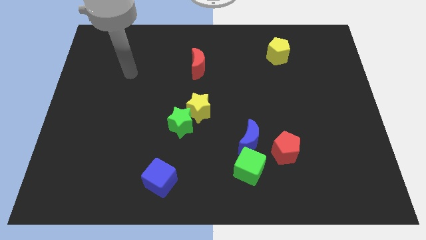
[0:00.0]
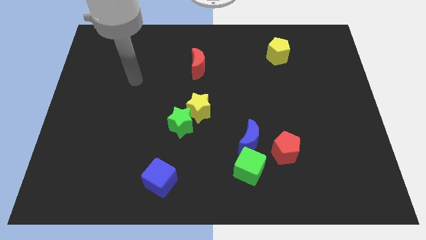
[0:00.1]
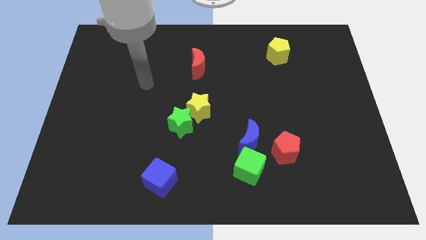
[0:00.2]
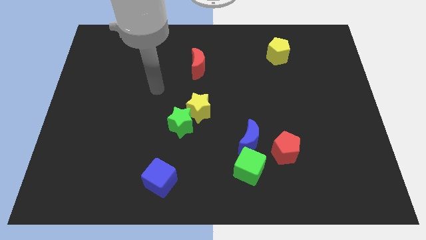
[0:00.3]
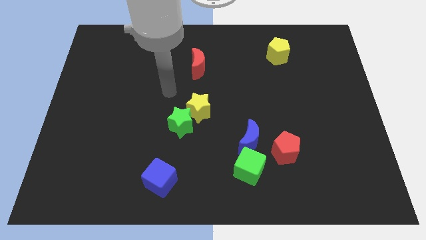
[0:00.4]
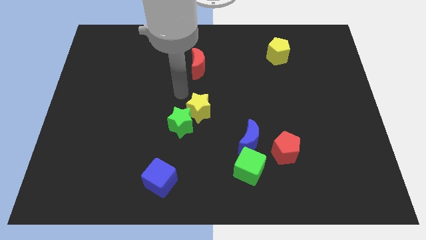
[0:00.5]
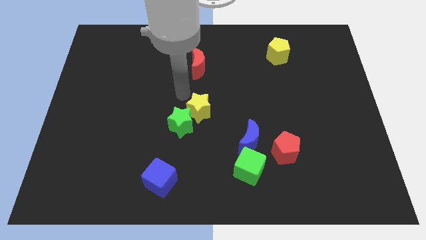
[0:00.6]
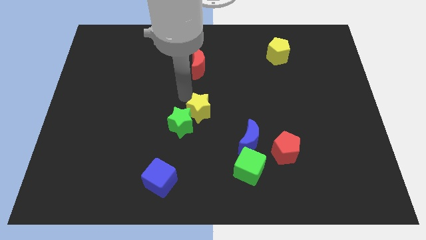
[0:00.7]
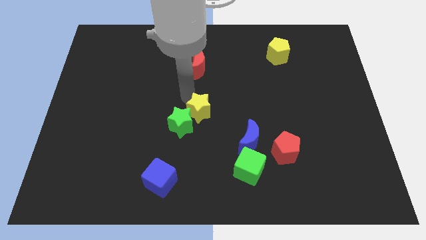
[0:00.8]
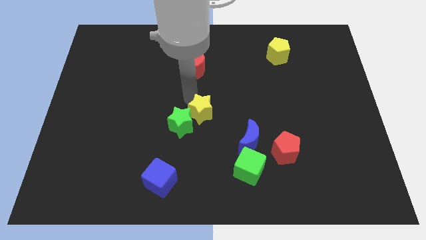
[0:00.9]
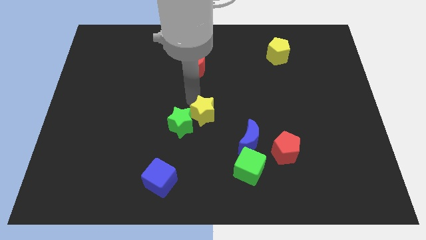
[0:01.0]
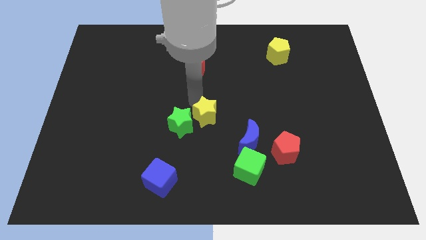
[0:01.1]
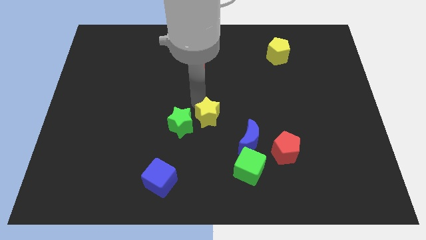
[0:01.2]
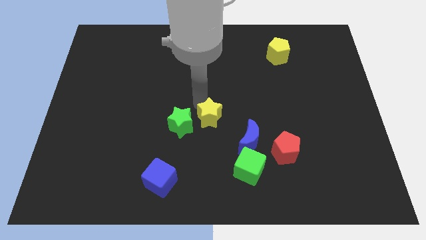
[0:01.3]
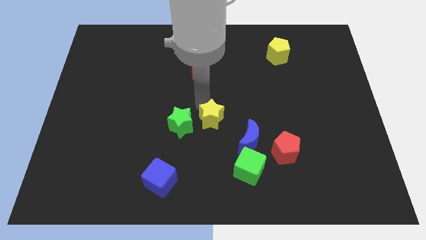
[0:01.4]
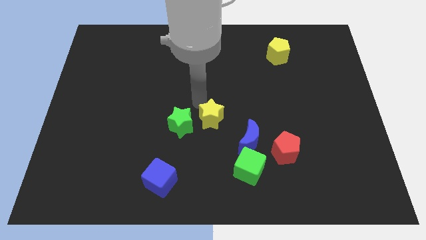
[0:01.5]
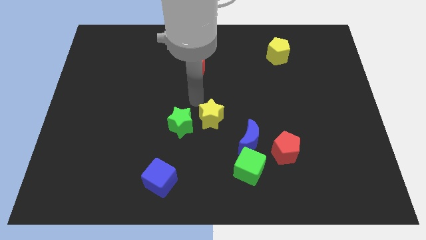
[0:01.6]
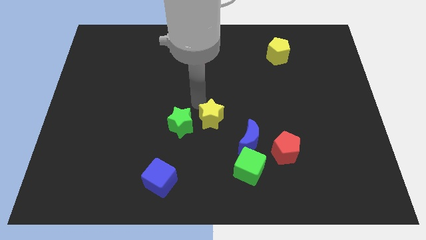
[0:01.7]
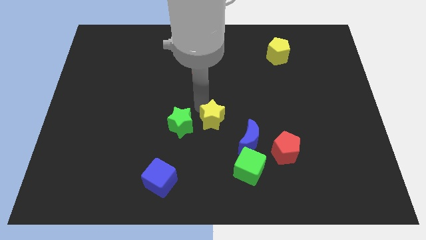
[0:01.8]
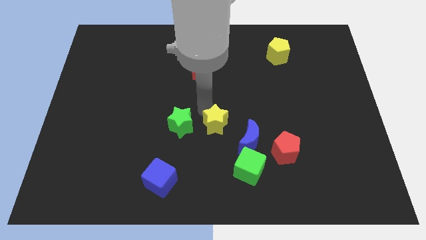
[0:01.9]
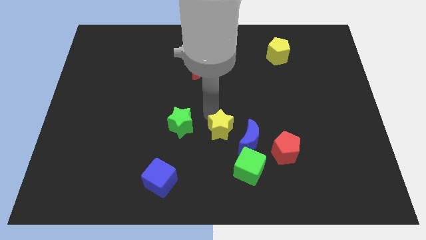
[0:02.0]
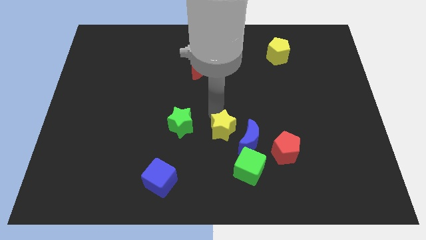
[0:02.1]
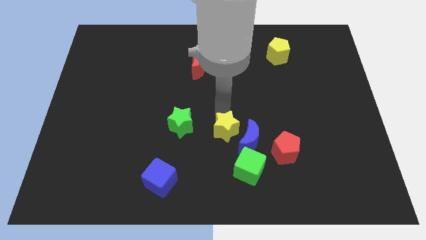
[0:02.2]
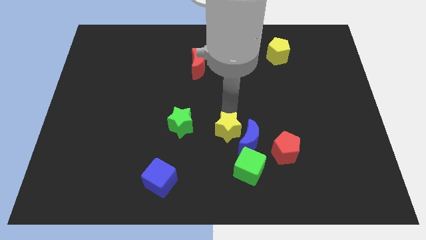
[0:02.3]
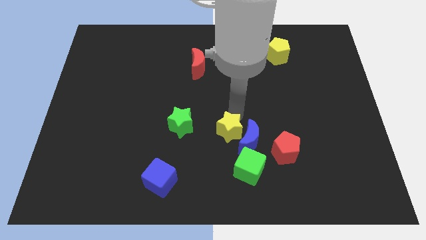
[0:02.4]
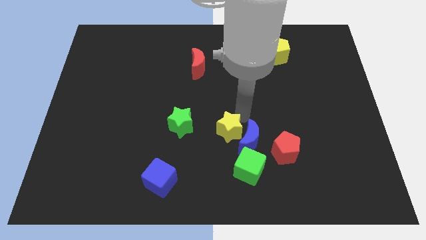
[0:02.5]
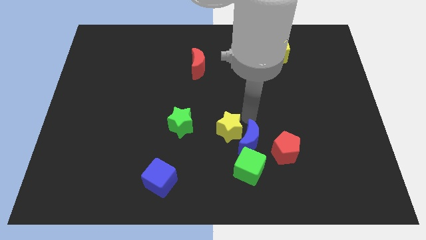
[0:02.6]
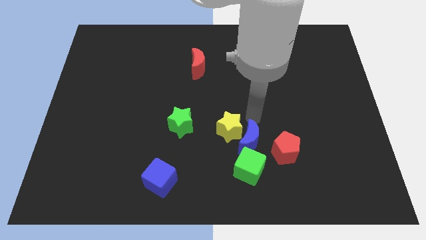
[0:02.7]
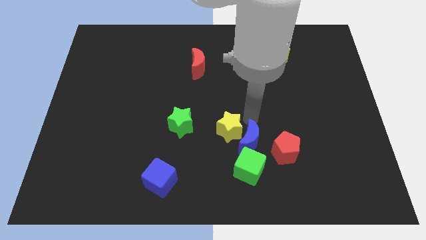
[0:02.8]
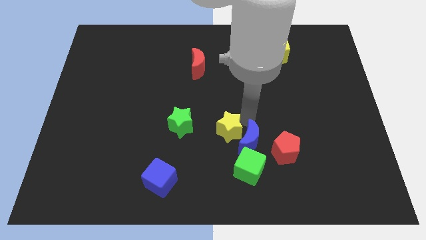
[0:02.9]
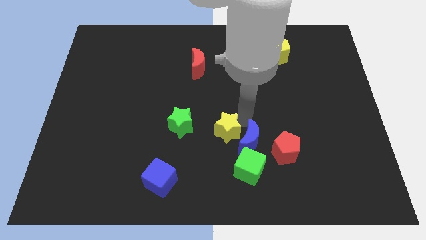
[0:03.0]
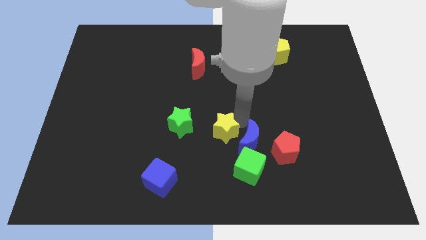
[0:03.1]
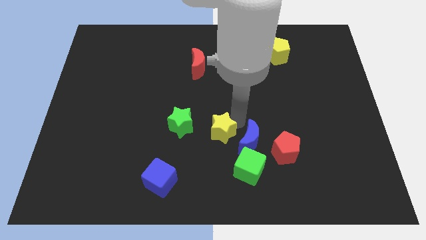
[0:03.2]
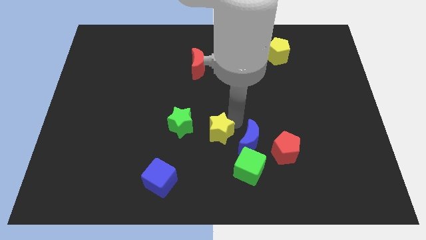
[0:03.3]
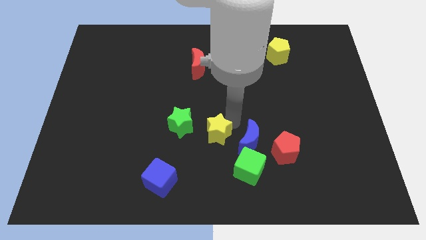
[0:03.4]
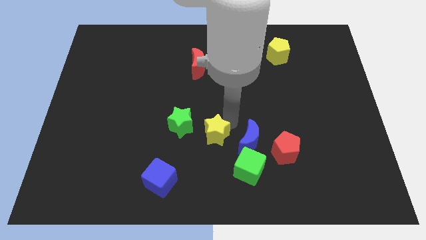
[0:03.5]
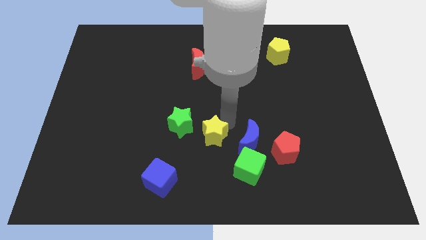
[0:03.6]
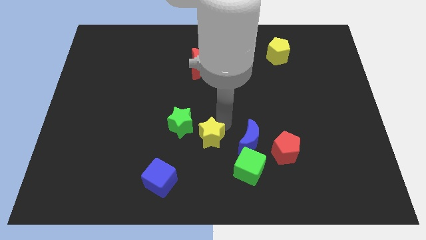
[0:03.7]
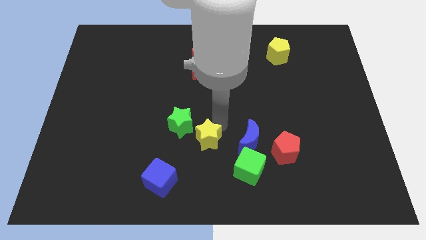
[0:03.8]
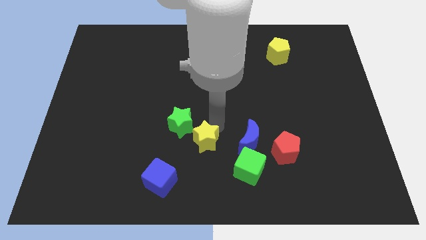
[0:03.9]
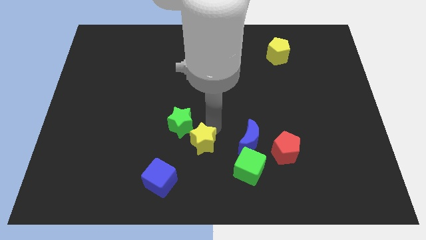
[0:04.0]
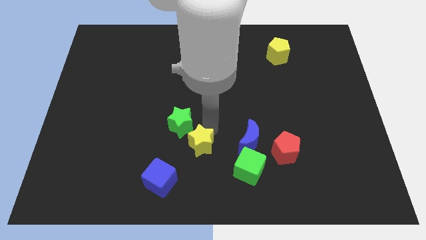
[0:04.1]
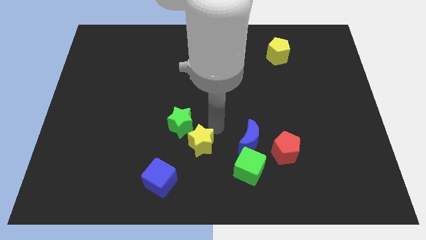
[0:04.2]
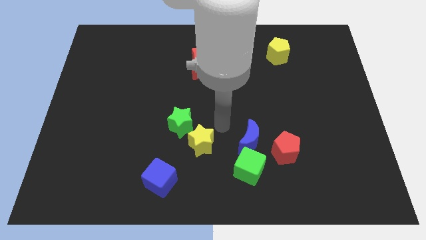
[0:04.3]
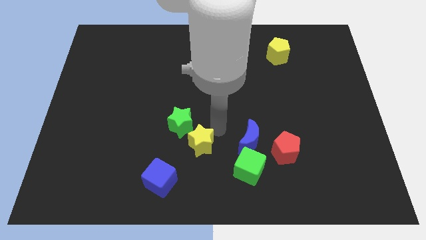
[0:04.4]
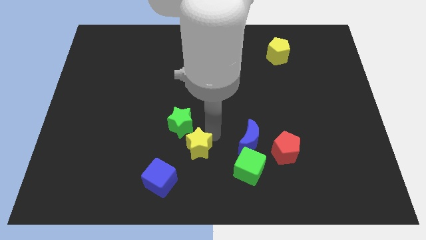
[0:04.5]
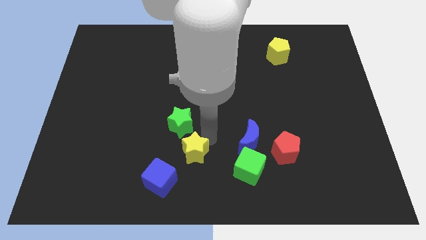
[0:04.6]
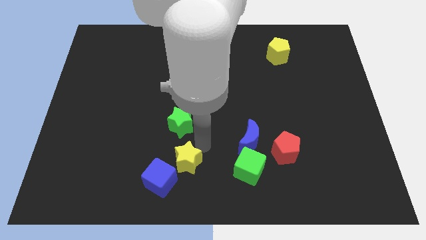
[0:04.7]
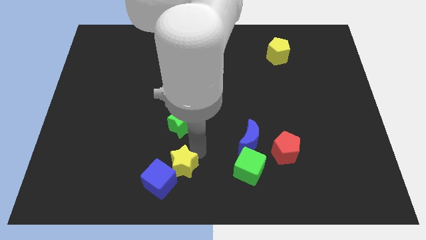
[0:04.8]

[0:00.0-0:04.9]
put the yellow star towards the blue cube

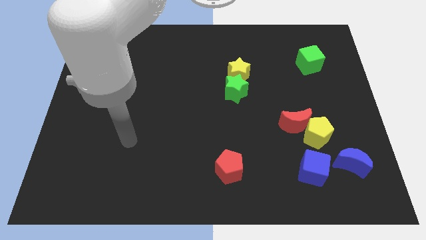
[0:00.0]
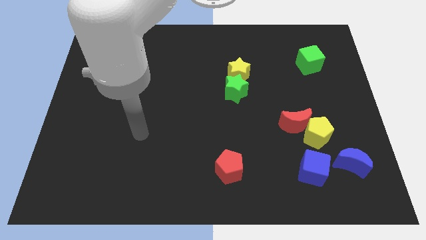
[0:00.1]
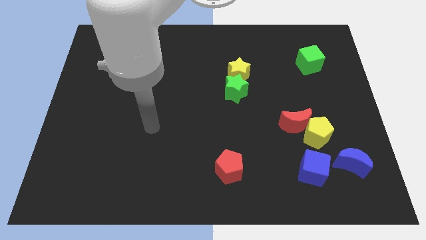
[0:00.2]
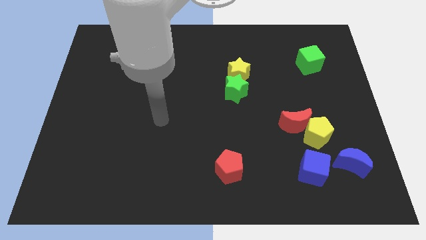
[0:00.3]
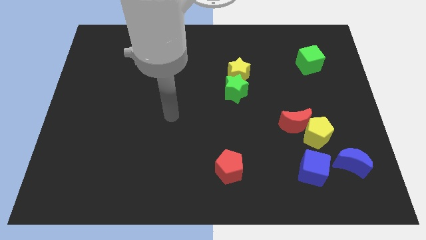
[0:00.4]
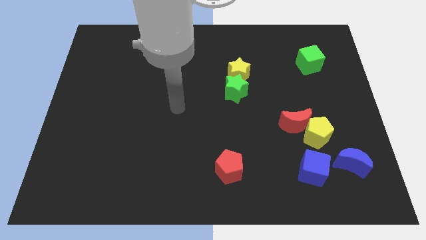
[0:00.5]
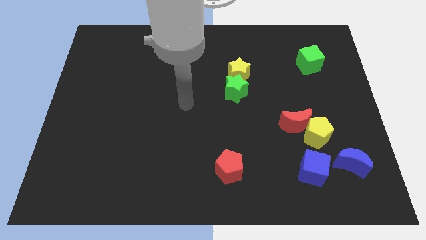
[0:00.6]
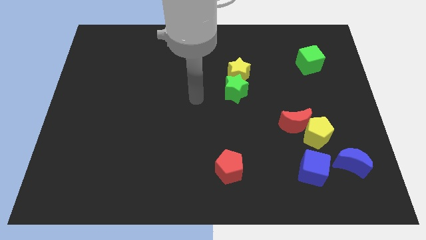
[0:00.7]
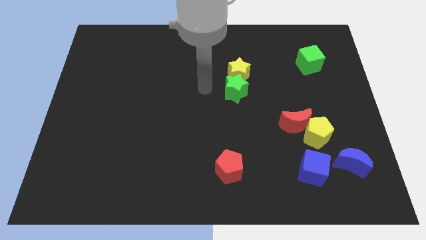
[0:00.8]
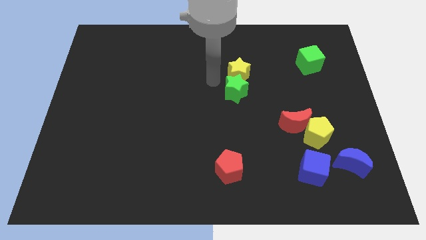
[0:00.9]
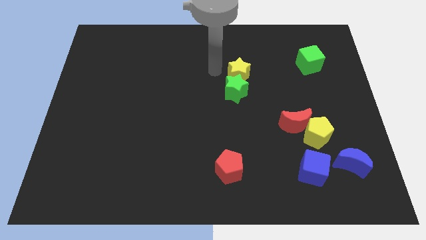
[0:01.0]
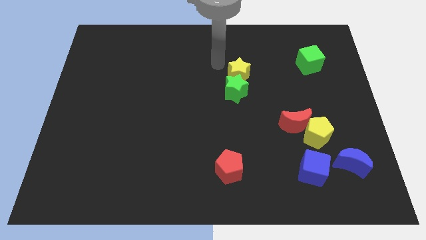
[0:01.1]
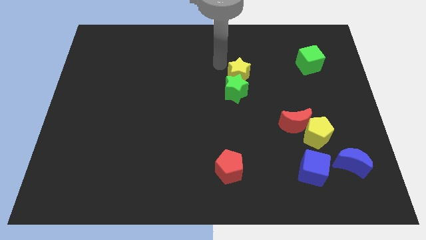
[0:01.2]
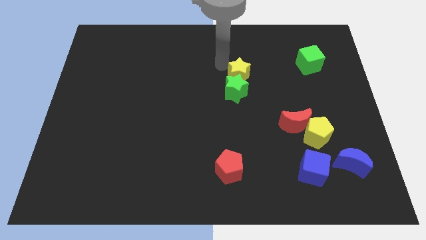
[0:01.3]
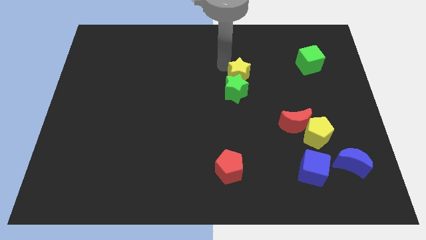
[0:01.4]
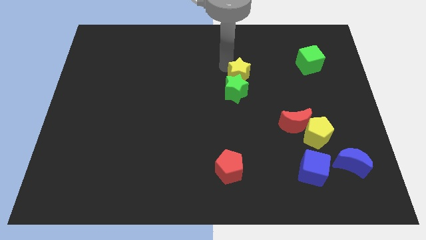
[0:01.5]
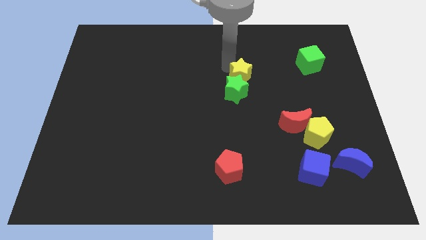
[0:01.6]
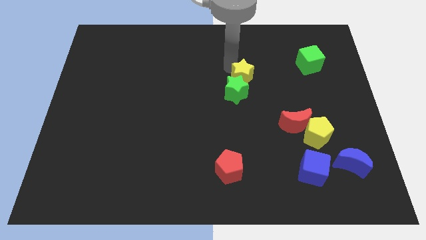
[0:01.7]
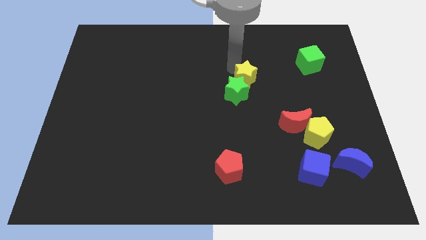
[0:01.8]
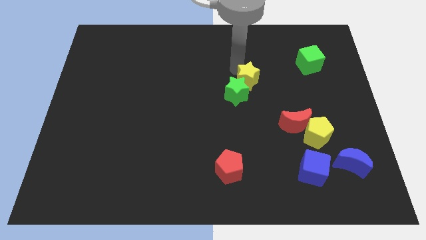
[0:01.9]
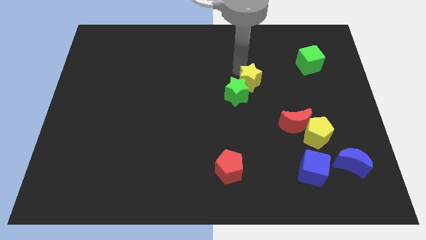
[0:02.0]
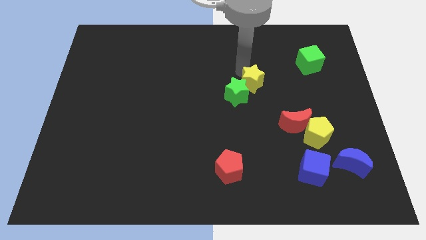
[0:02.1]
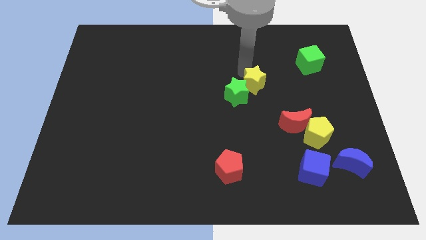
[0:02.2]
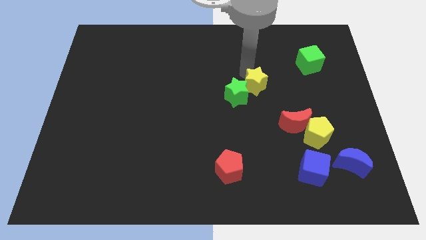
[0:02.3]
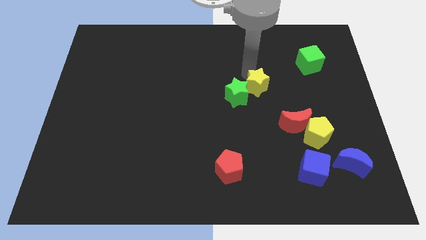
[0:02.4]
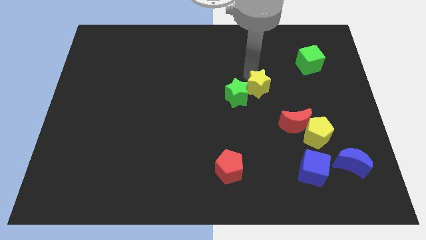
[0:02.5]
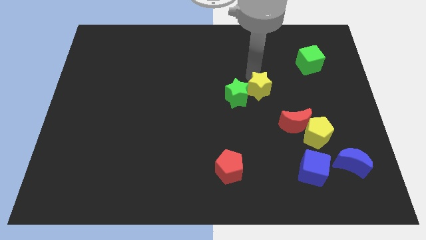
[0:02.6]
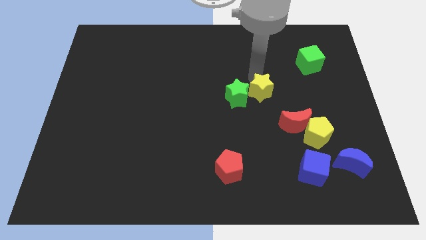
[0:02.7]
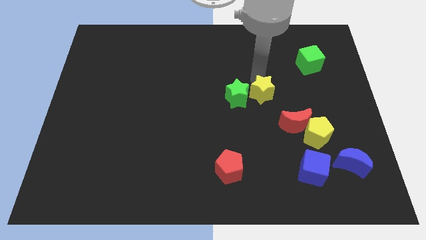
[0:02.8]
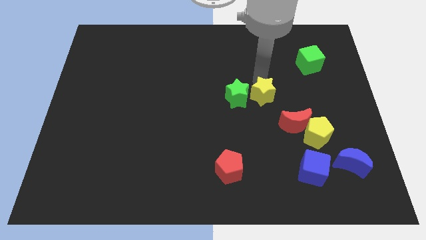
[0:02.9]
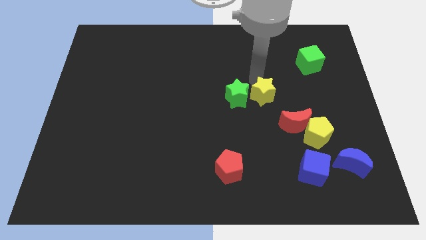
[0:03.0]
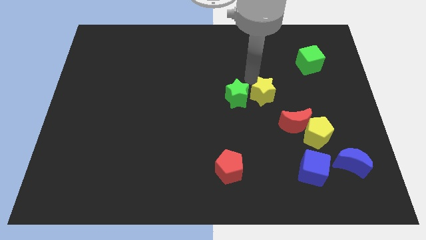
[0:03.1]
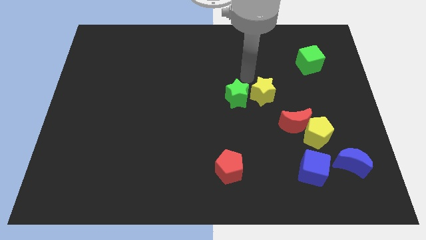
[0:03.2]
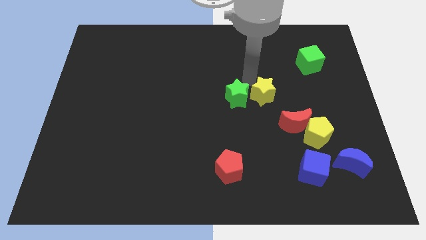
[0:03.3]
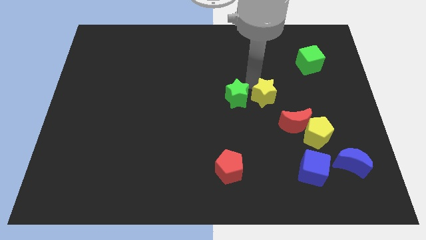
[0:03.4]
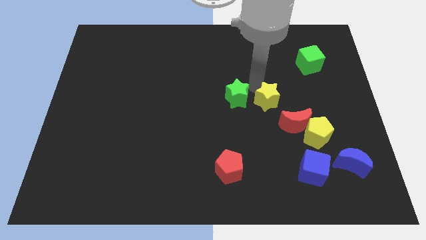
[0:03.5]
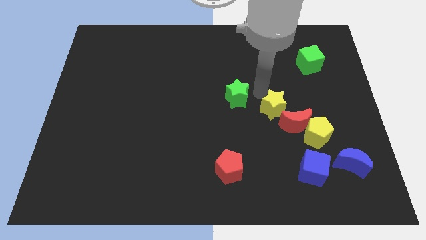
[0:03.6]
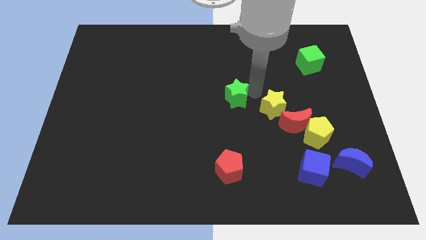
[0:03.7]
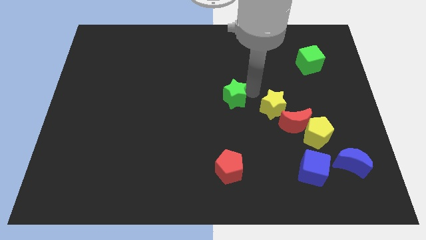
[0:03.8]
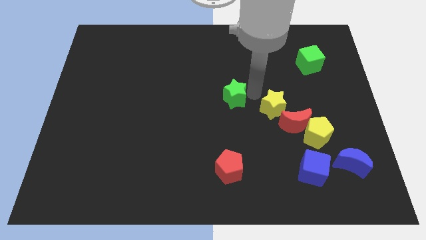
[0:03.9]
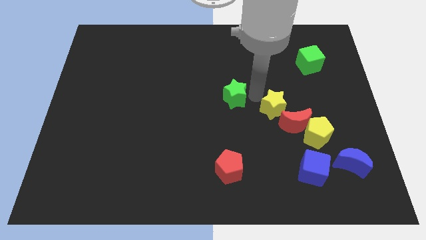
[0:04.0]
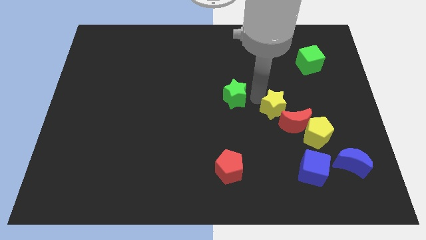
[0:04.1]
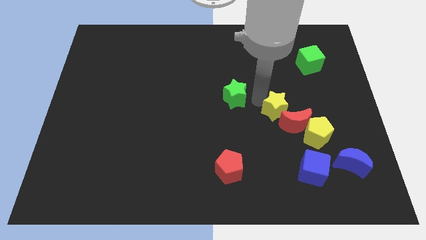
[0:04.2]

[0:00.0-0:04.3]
put the yellow star close to the red moon
